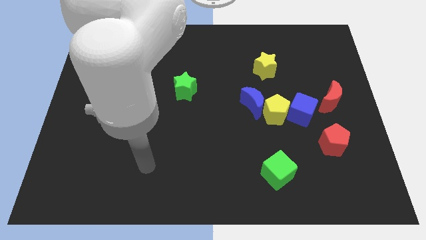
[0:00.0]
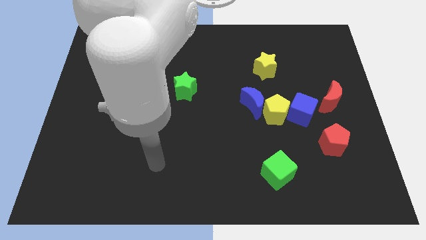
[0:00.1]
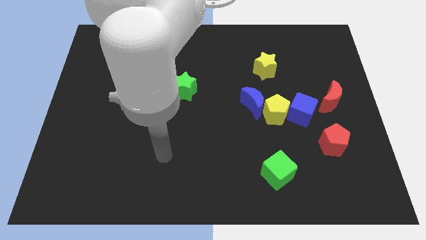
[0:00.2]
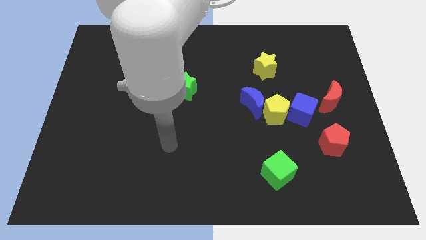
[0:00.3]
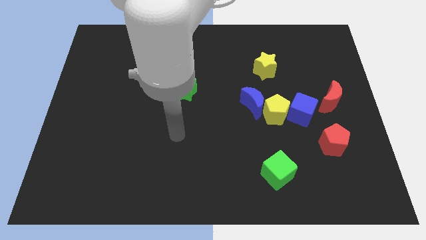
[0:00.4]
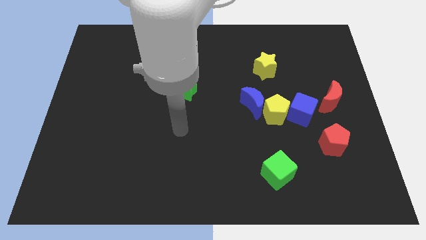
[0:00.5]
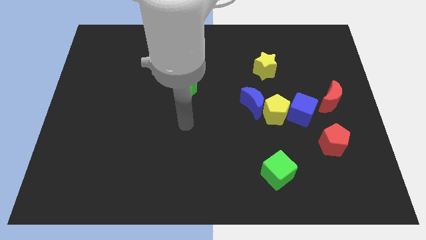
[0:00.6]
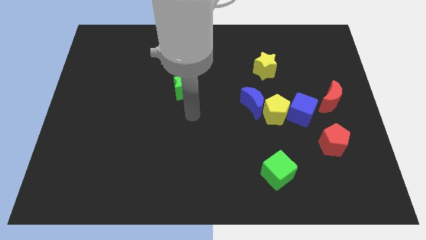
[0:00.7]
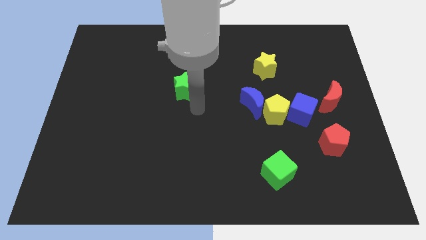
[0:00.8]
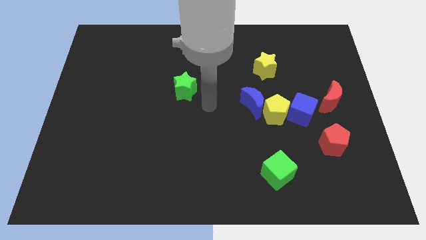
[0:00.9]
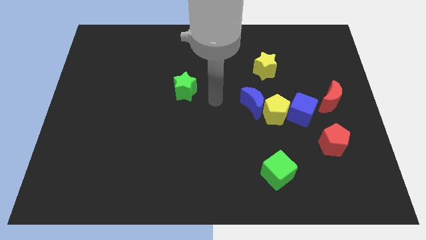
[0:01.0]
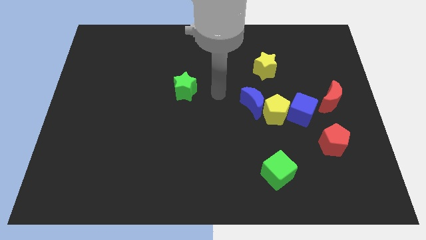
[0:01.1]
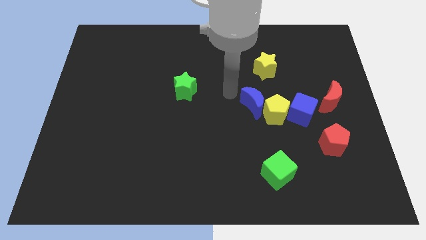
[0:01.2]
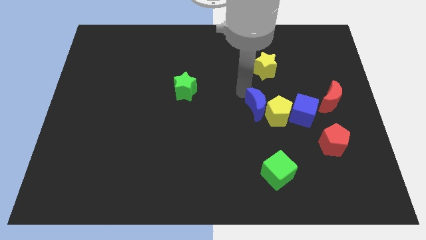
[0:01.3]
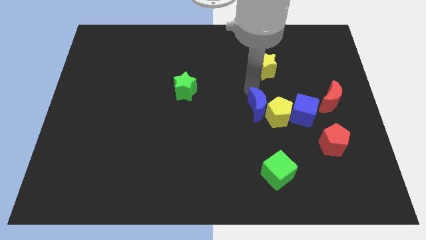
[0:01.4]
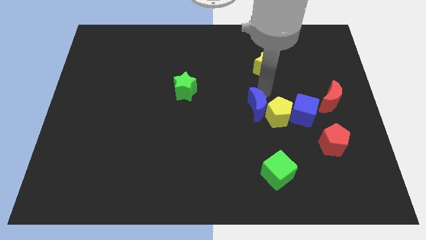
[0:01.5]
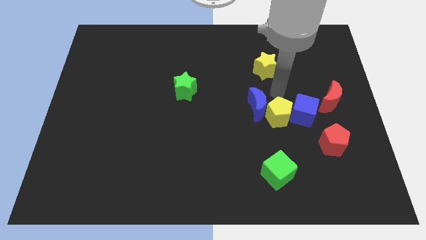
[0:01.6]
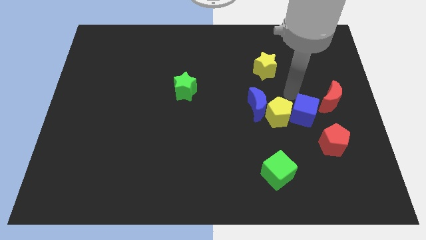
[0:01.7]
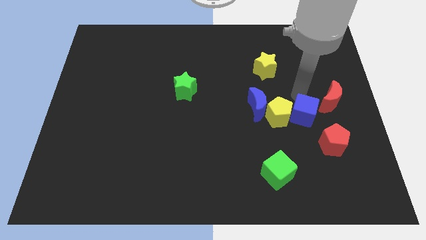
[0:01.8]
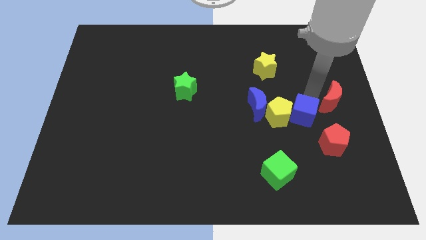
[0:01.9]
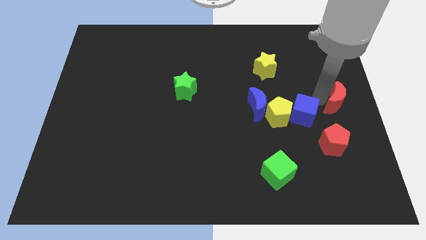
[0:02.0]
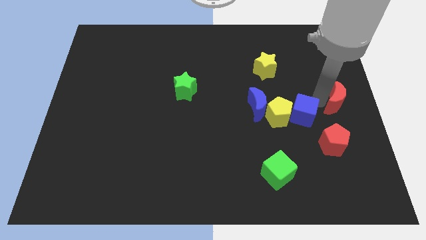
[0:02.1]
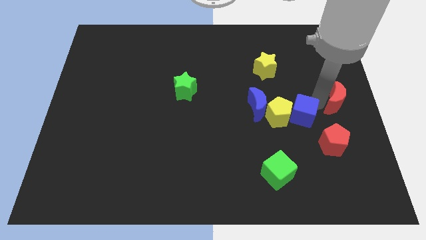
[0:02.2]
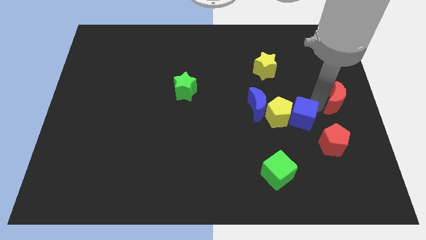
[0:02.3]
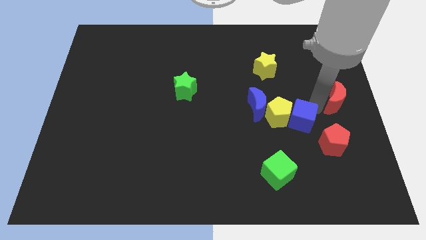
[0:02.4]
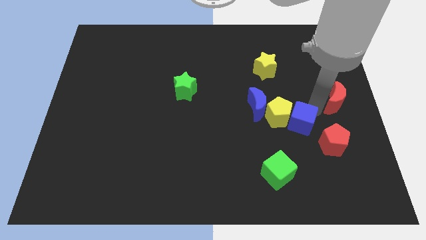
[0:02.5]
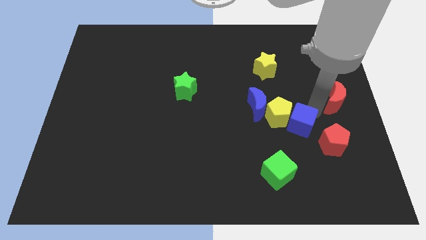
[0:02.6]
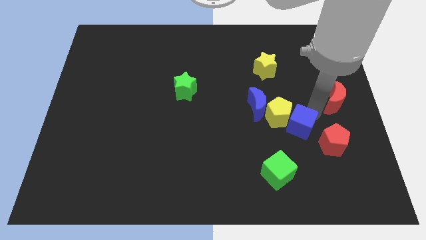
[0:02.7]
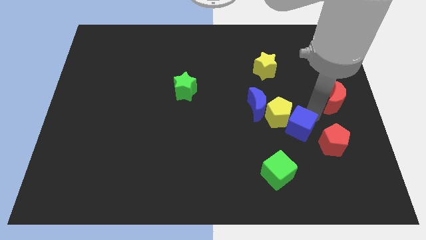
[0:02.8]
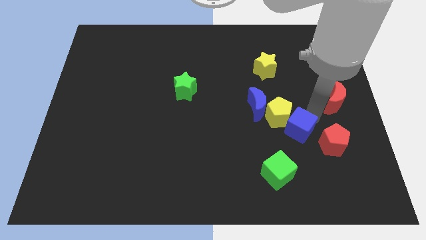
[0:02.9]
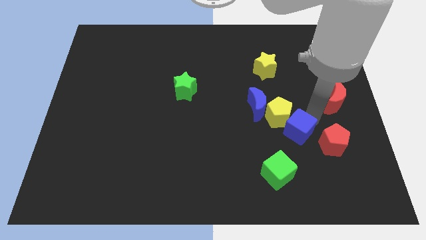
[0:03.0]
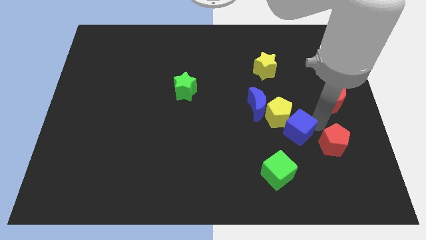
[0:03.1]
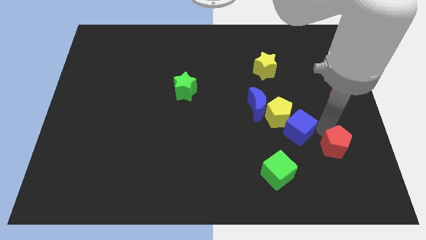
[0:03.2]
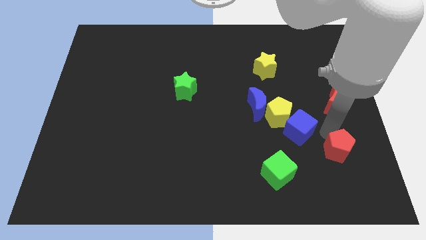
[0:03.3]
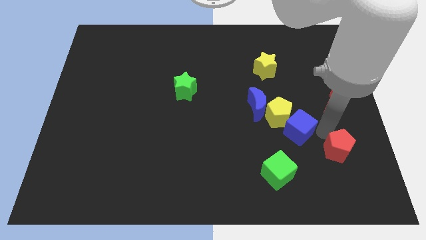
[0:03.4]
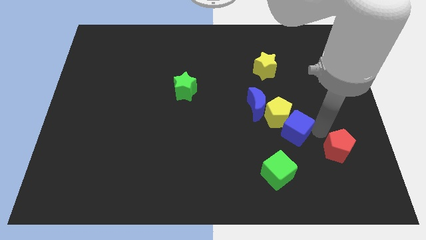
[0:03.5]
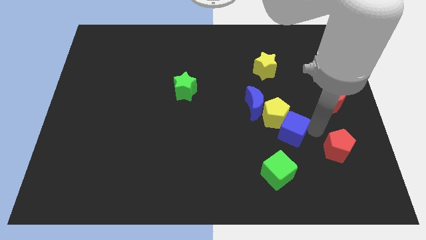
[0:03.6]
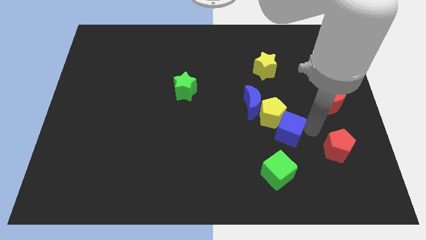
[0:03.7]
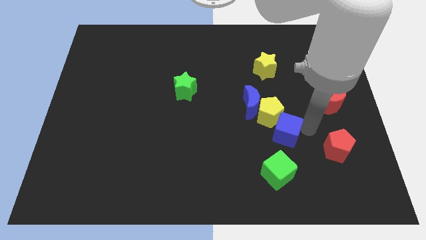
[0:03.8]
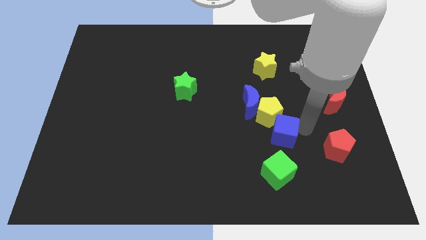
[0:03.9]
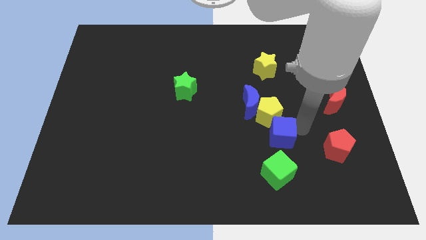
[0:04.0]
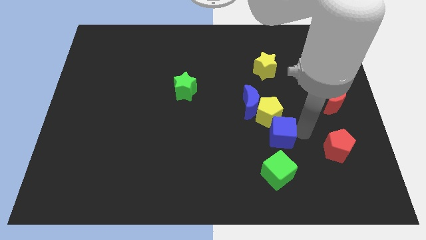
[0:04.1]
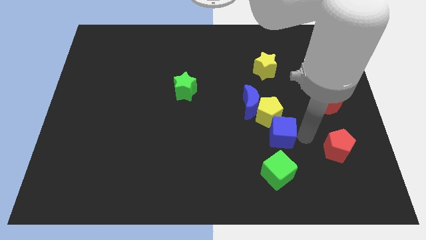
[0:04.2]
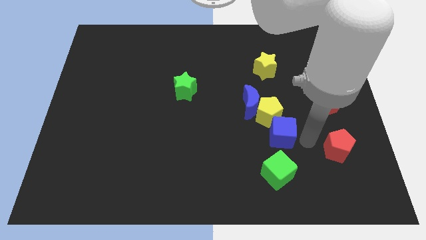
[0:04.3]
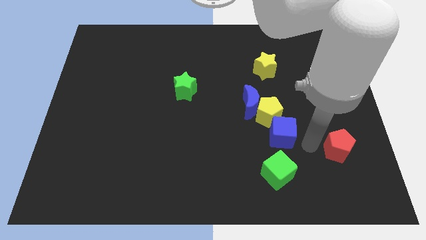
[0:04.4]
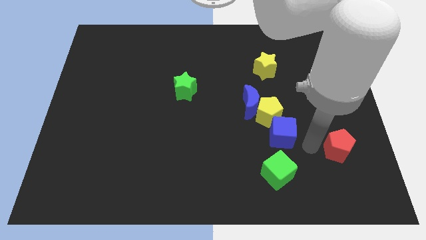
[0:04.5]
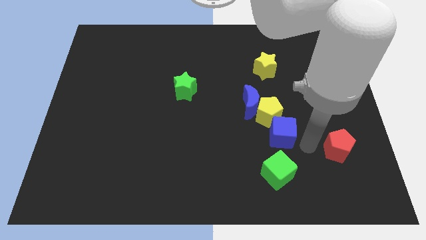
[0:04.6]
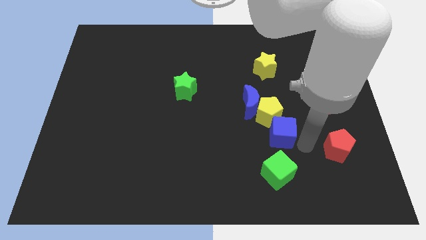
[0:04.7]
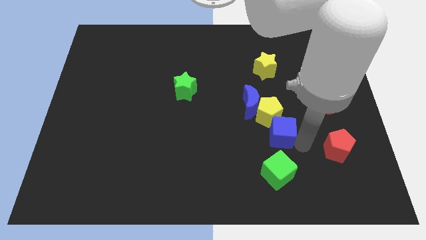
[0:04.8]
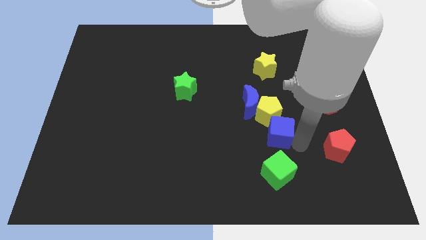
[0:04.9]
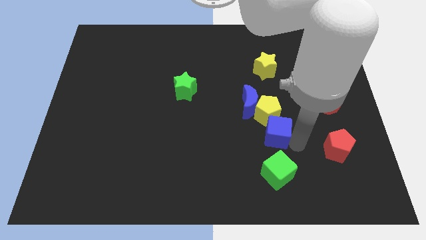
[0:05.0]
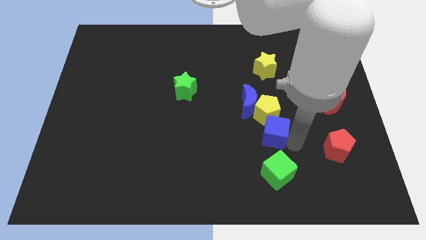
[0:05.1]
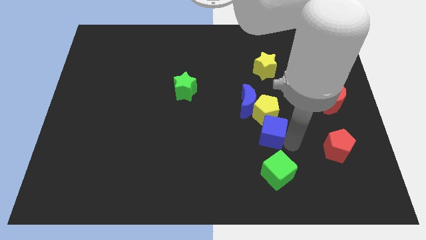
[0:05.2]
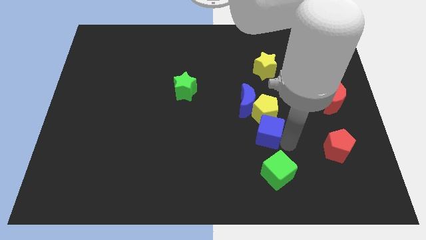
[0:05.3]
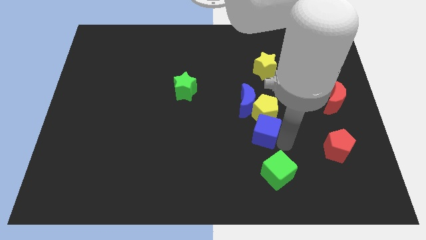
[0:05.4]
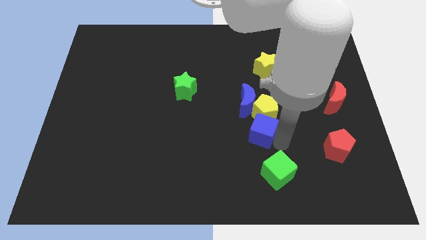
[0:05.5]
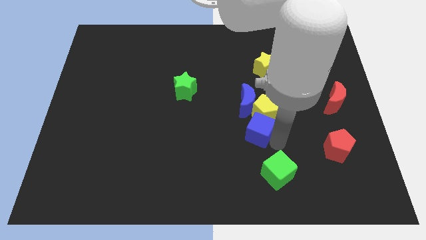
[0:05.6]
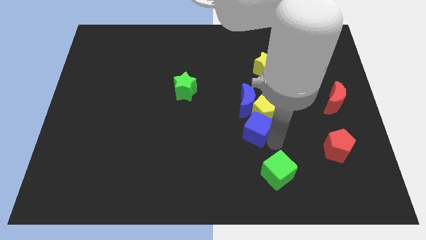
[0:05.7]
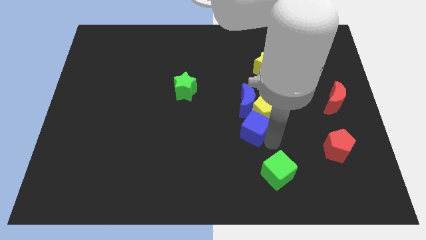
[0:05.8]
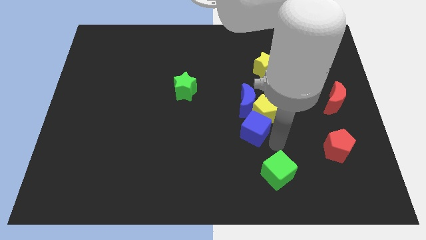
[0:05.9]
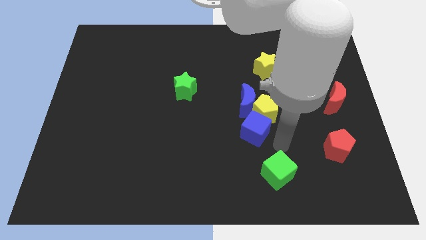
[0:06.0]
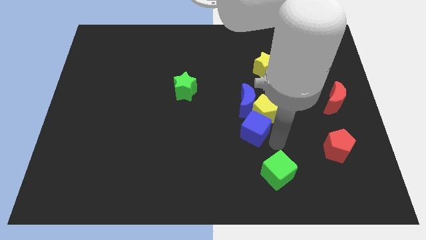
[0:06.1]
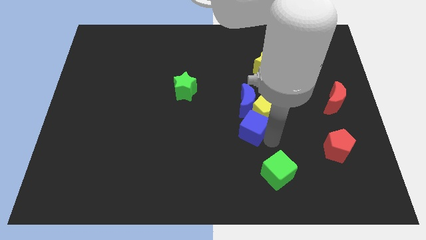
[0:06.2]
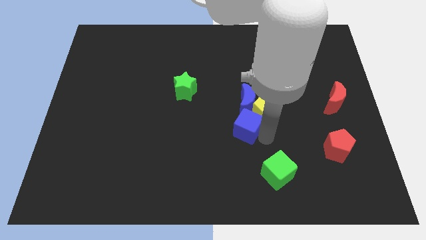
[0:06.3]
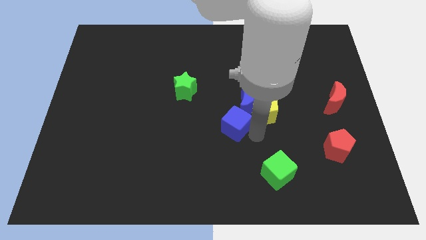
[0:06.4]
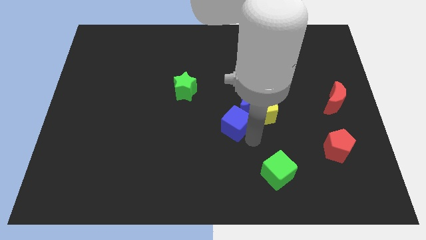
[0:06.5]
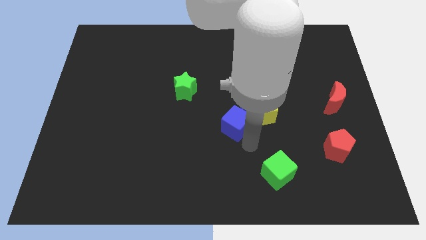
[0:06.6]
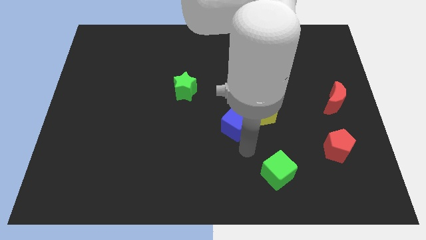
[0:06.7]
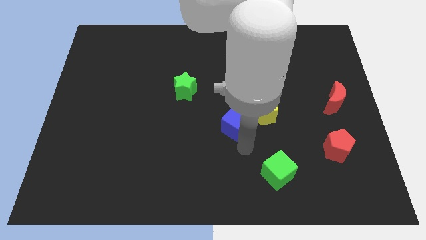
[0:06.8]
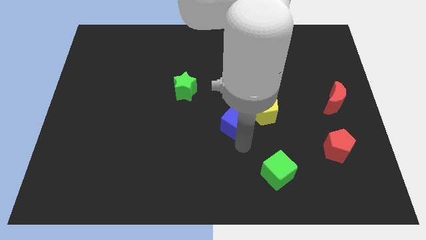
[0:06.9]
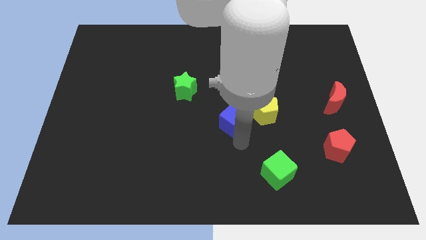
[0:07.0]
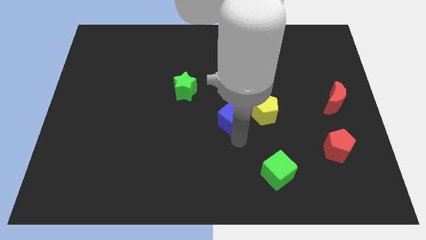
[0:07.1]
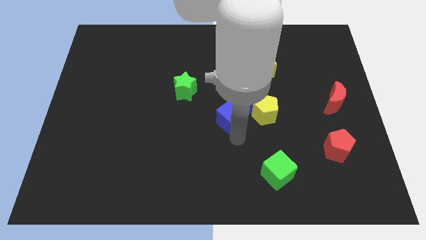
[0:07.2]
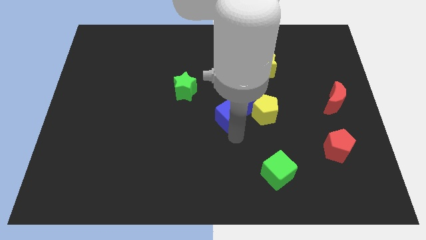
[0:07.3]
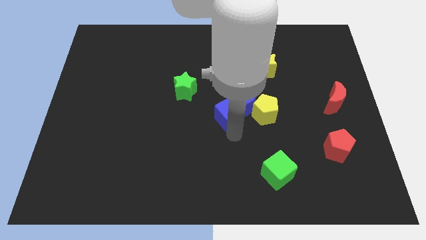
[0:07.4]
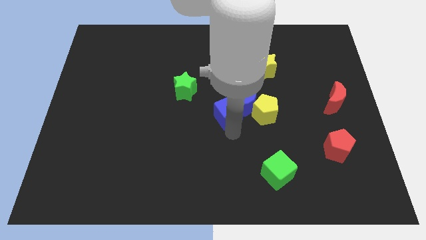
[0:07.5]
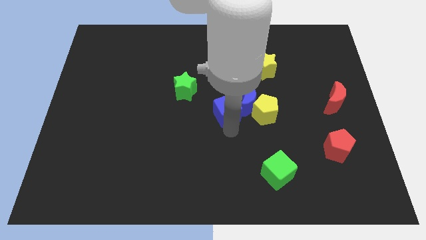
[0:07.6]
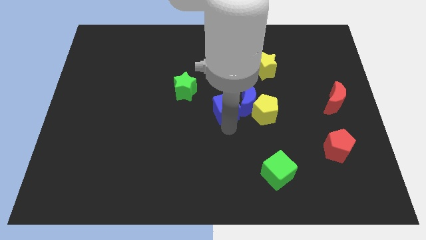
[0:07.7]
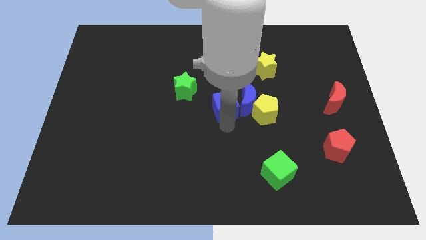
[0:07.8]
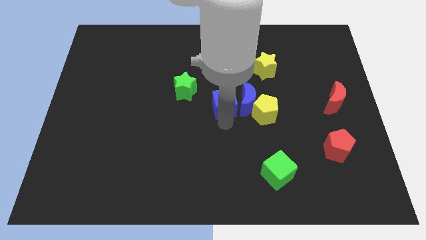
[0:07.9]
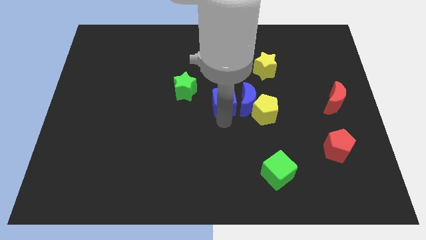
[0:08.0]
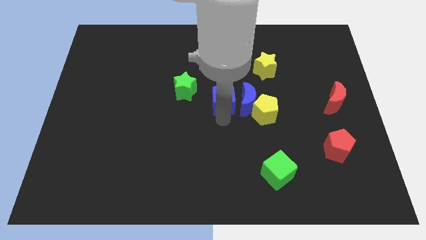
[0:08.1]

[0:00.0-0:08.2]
push the blue cube to the top left of the yellow pentagon
